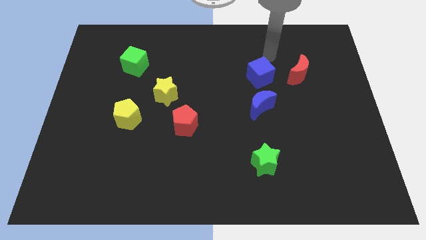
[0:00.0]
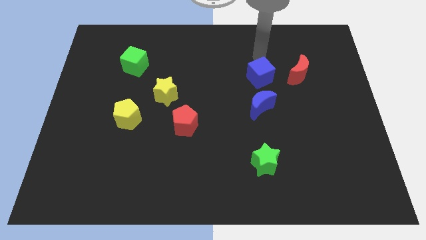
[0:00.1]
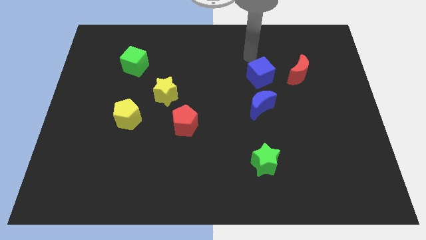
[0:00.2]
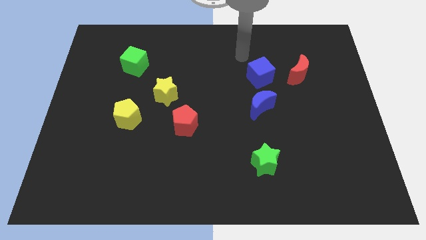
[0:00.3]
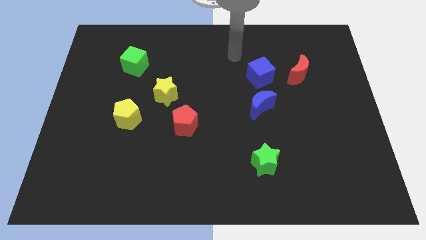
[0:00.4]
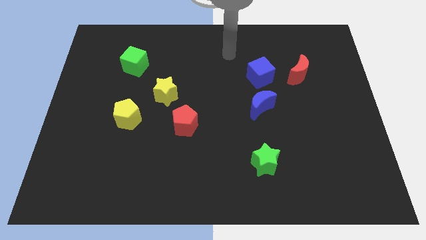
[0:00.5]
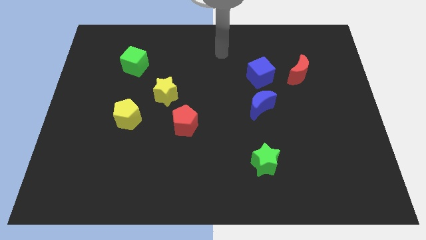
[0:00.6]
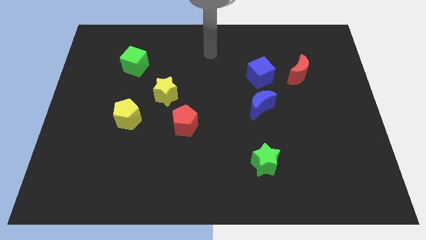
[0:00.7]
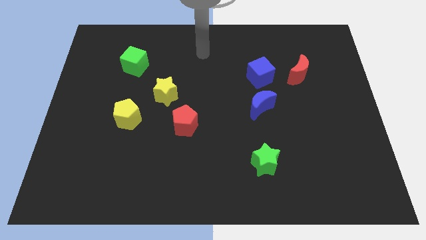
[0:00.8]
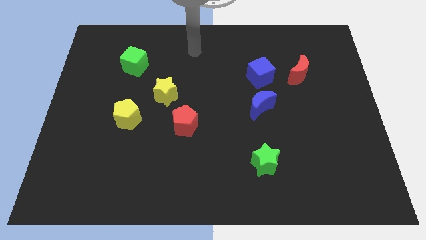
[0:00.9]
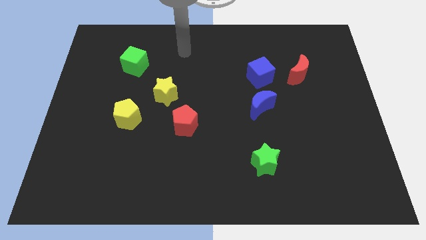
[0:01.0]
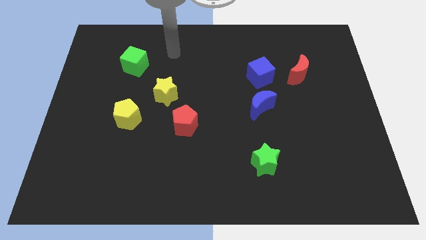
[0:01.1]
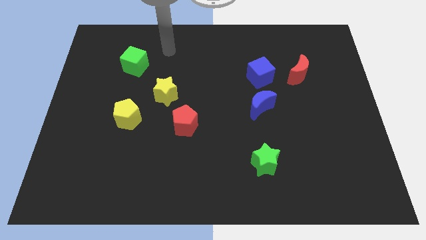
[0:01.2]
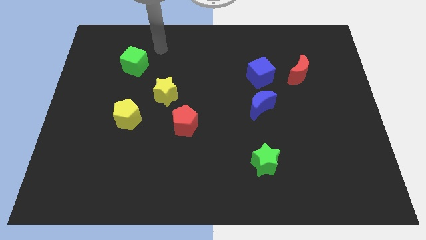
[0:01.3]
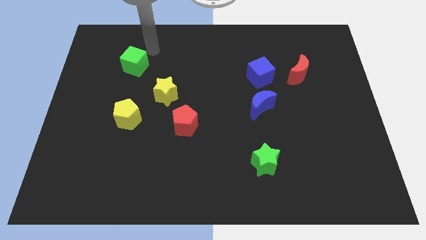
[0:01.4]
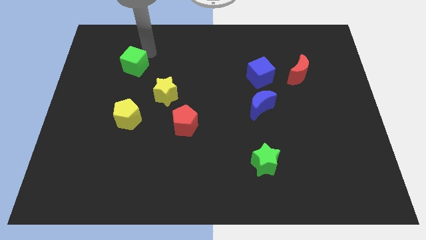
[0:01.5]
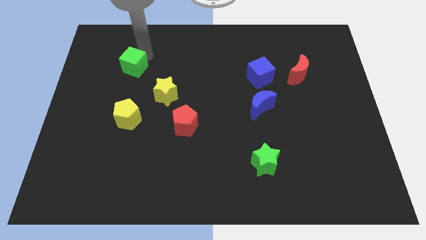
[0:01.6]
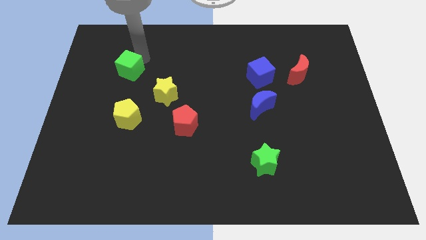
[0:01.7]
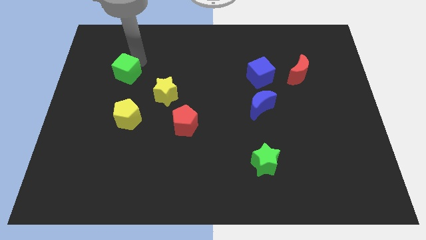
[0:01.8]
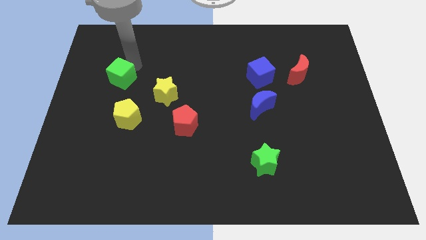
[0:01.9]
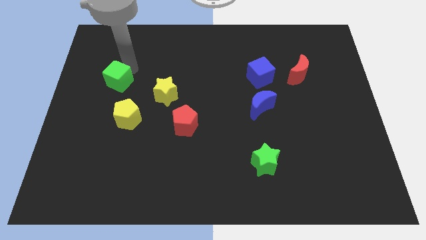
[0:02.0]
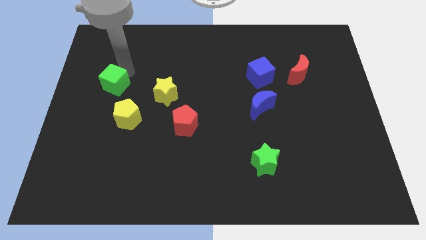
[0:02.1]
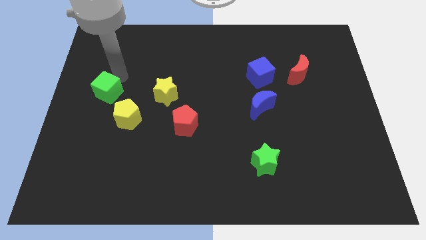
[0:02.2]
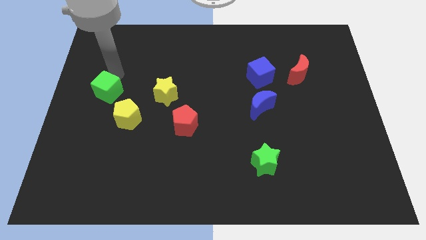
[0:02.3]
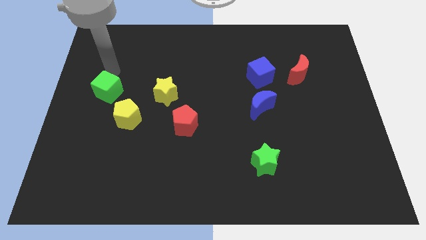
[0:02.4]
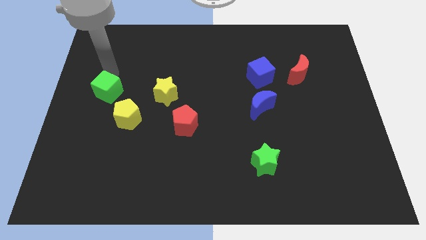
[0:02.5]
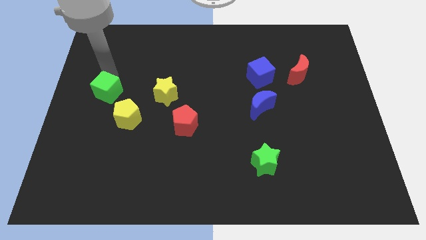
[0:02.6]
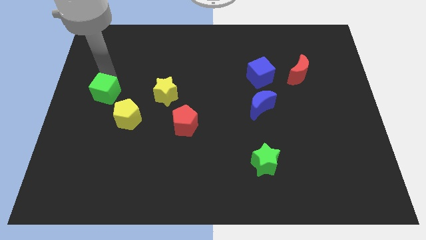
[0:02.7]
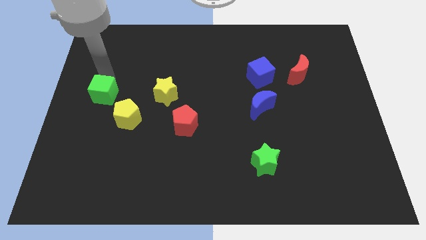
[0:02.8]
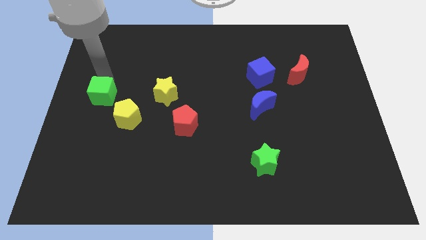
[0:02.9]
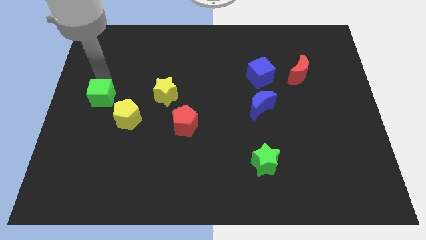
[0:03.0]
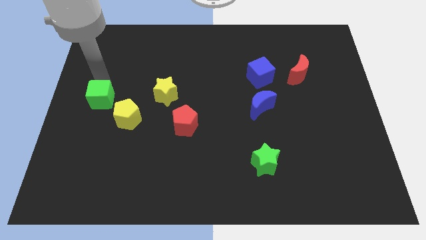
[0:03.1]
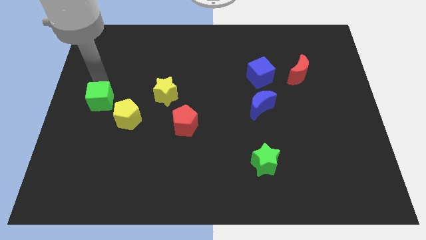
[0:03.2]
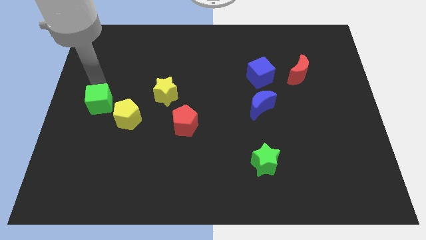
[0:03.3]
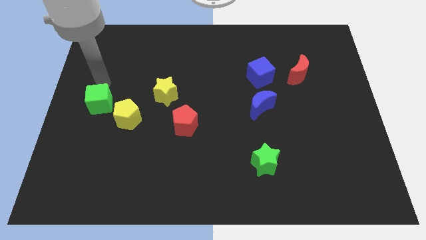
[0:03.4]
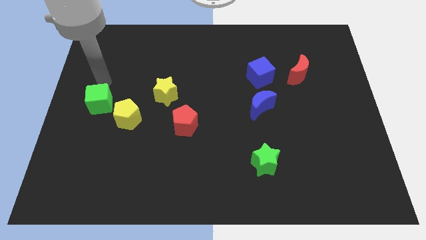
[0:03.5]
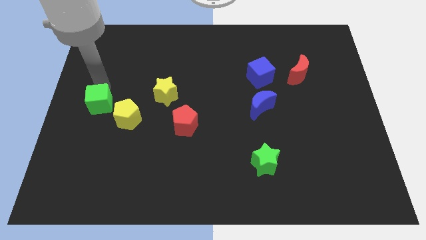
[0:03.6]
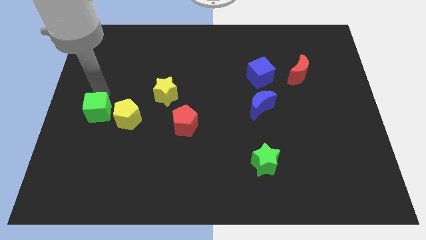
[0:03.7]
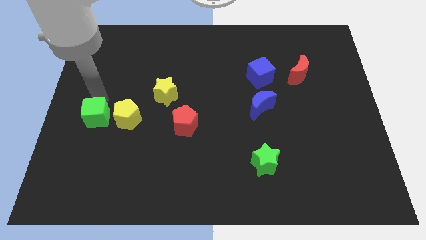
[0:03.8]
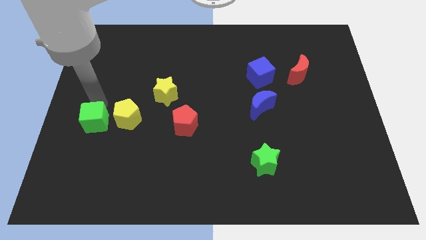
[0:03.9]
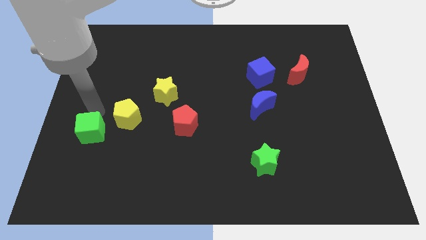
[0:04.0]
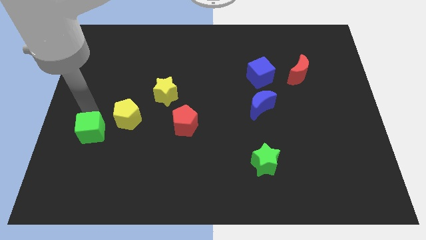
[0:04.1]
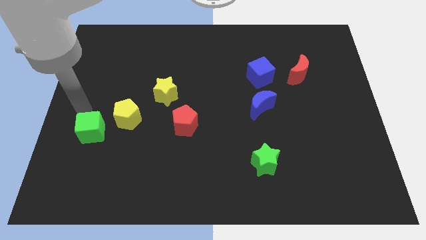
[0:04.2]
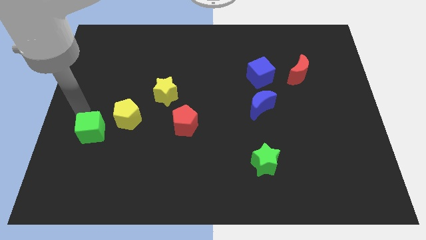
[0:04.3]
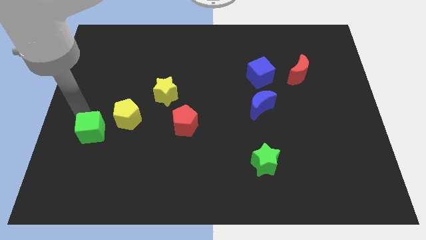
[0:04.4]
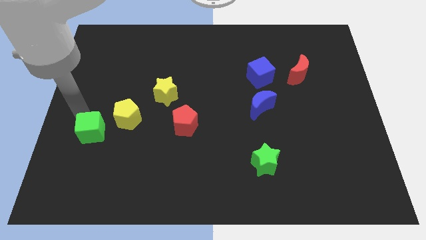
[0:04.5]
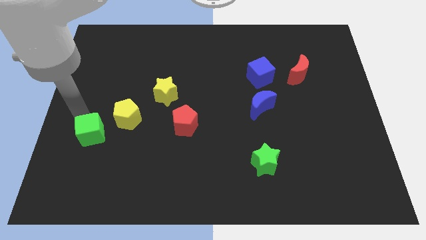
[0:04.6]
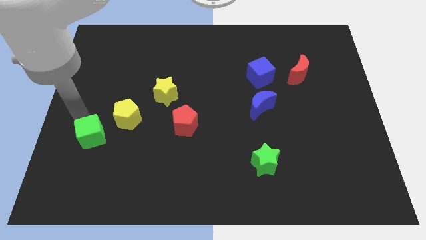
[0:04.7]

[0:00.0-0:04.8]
move the green cube down

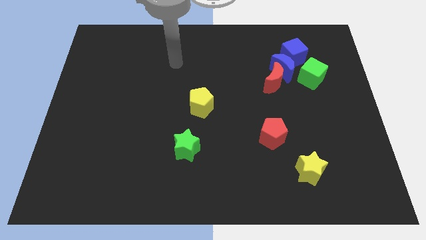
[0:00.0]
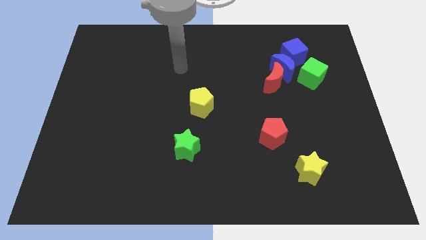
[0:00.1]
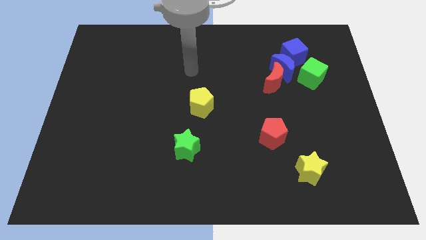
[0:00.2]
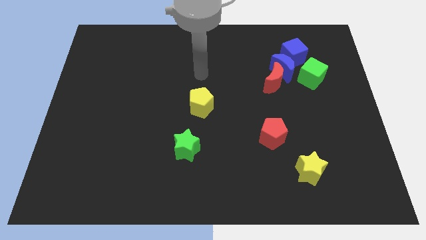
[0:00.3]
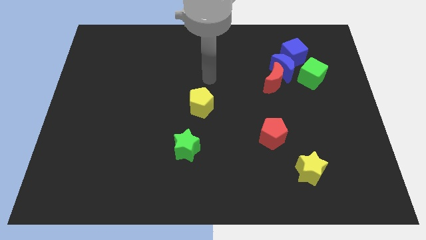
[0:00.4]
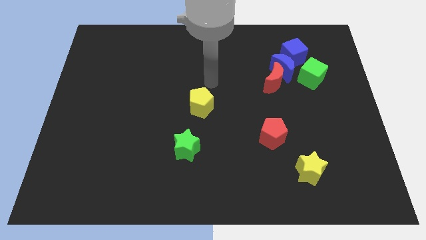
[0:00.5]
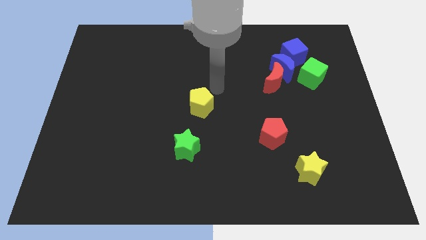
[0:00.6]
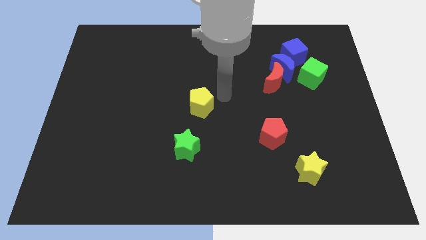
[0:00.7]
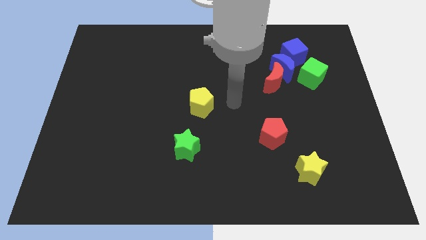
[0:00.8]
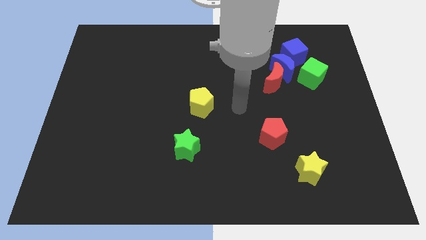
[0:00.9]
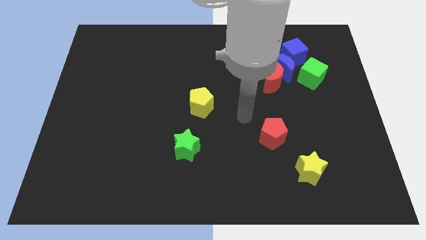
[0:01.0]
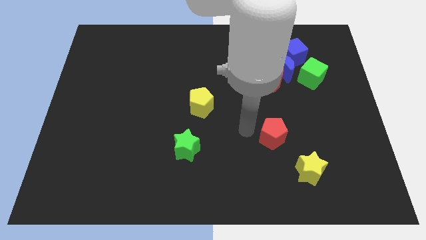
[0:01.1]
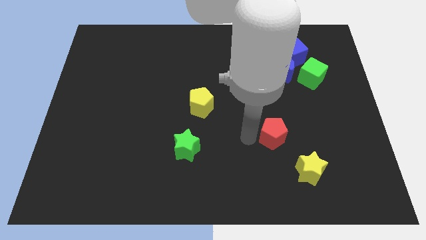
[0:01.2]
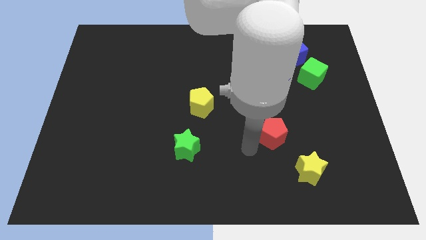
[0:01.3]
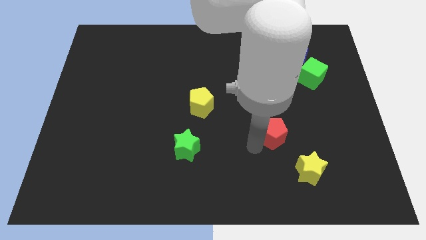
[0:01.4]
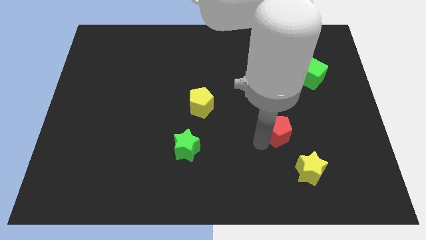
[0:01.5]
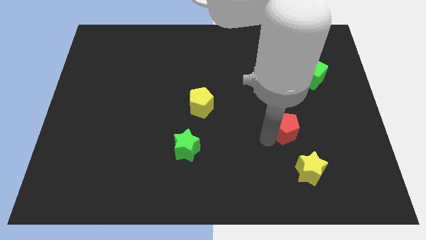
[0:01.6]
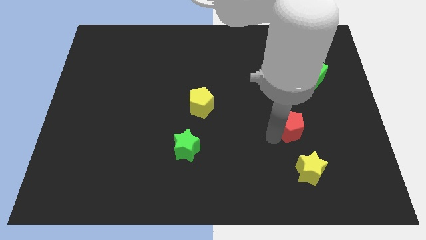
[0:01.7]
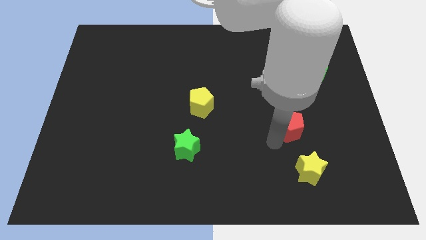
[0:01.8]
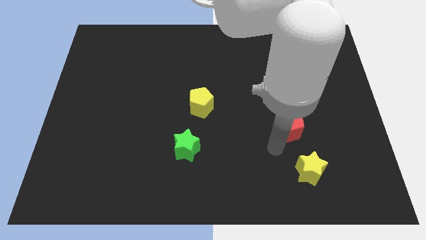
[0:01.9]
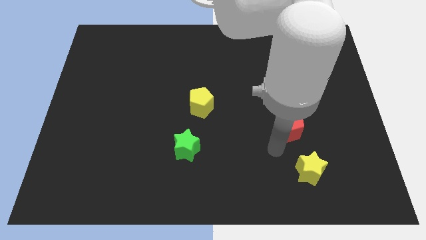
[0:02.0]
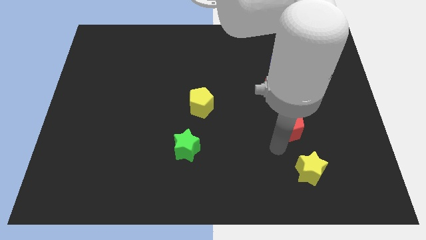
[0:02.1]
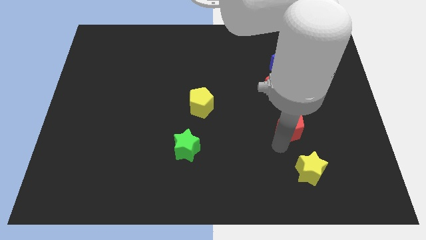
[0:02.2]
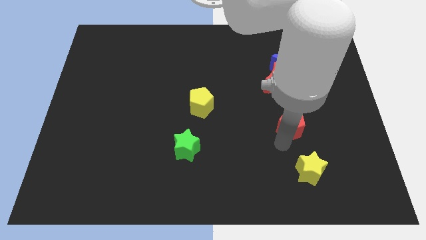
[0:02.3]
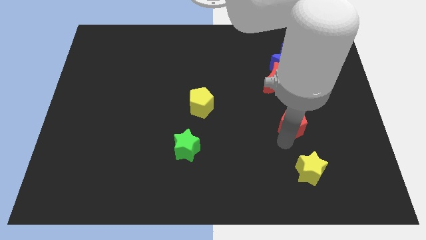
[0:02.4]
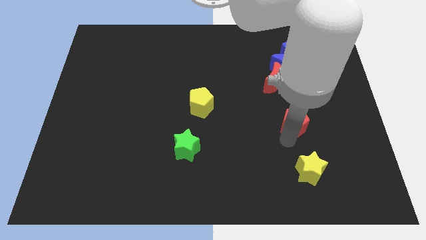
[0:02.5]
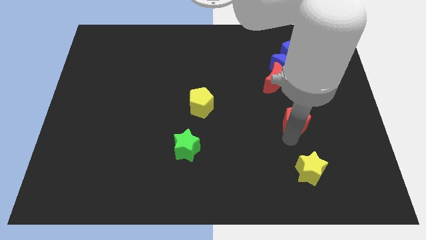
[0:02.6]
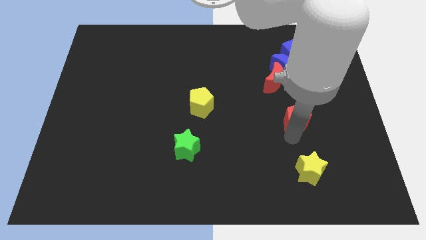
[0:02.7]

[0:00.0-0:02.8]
slightly push the red pentagon up and then right

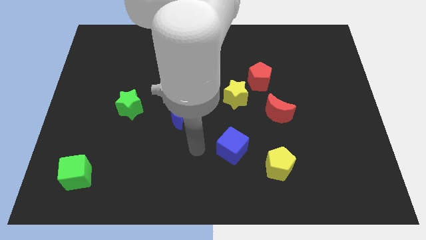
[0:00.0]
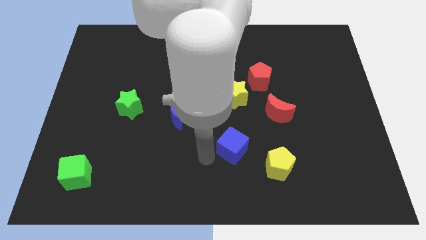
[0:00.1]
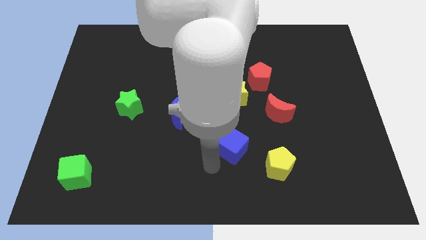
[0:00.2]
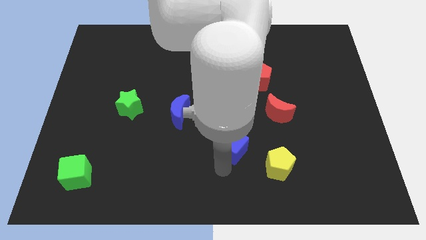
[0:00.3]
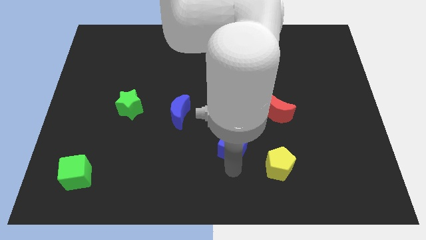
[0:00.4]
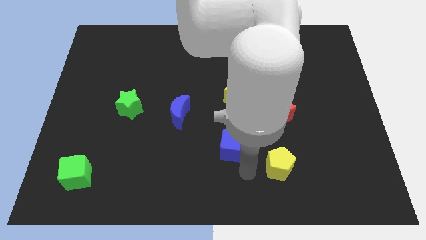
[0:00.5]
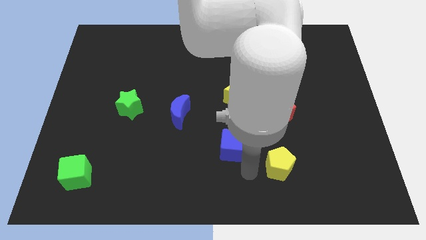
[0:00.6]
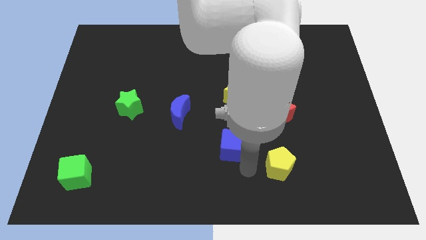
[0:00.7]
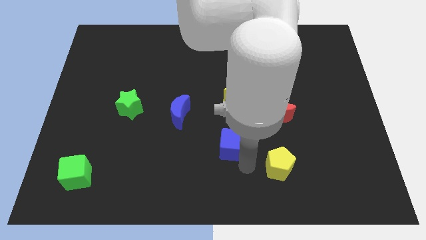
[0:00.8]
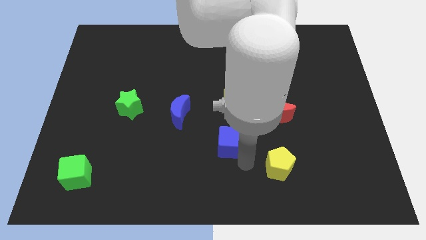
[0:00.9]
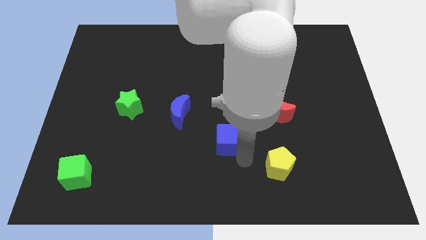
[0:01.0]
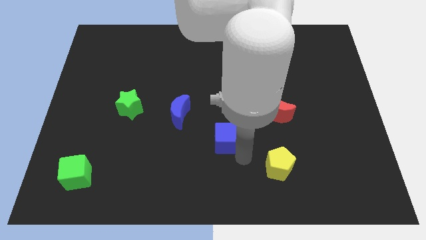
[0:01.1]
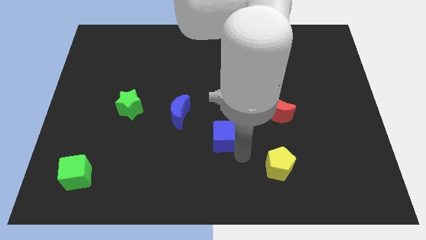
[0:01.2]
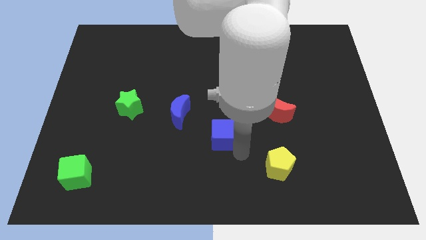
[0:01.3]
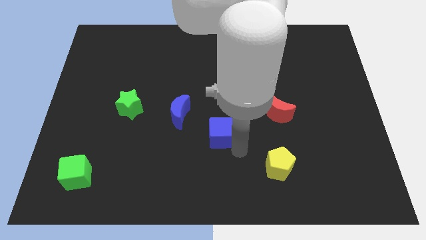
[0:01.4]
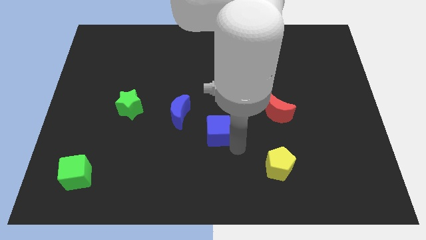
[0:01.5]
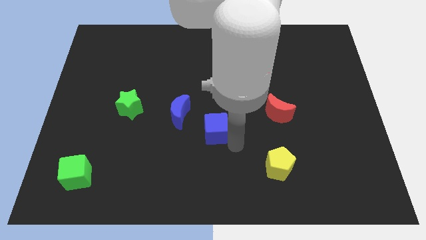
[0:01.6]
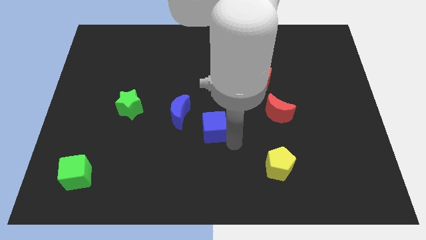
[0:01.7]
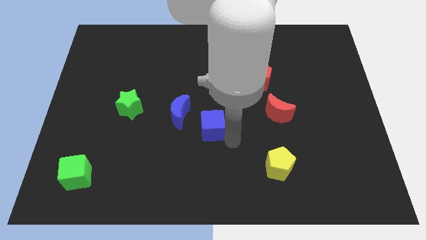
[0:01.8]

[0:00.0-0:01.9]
move the blue cube diagonally up and left a little
